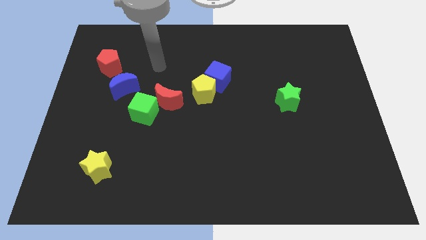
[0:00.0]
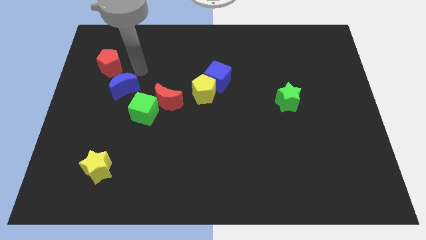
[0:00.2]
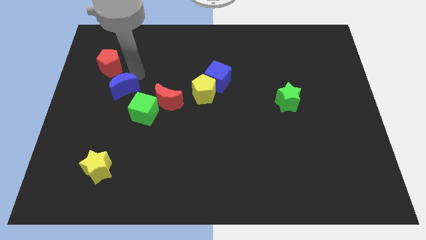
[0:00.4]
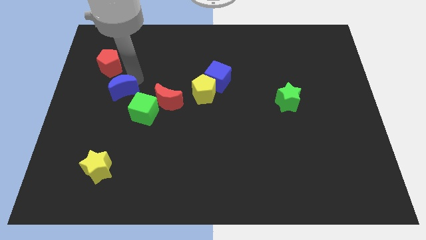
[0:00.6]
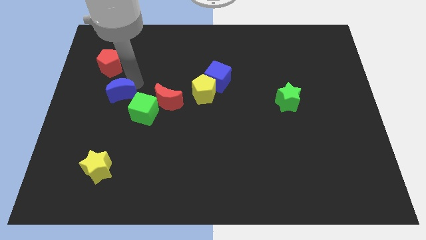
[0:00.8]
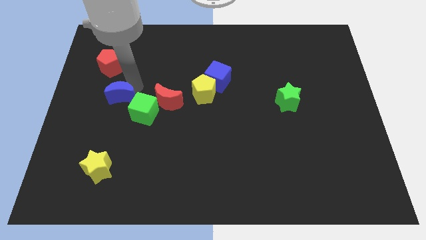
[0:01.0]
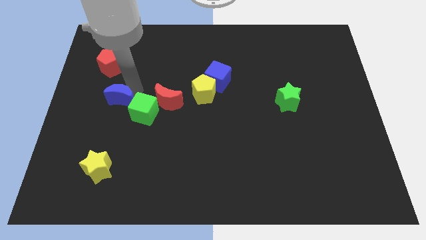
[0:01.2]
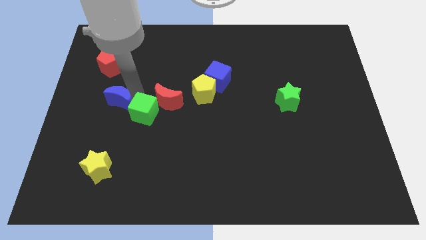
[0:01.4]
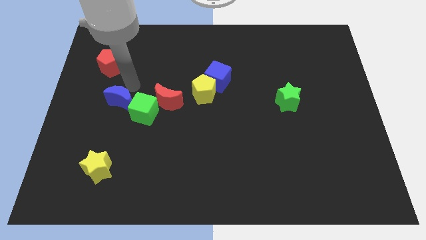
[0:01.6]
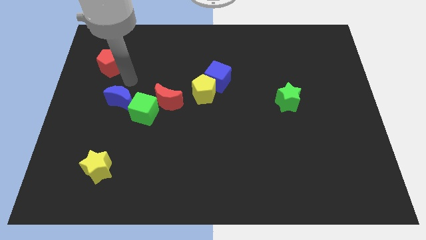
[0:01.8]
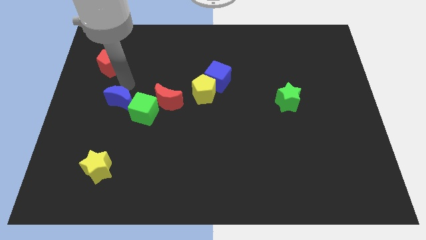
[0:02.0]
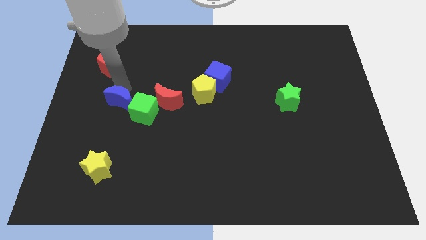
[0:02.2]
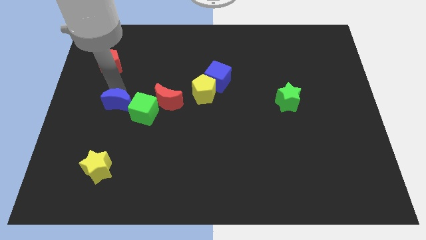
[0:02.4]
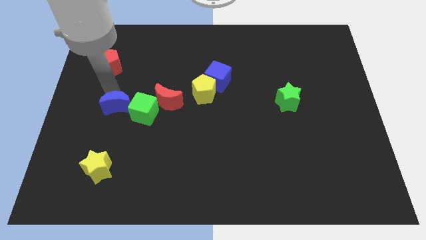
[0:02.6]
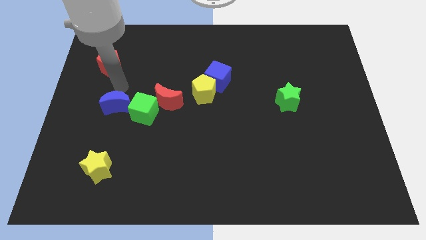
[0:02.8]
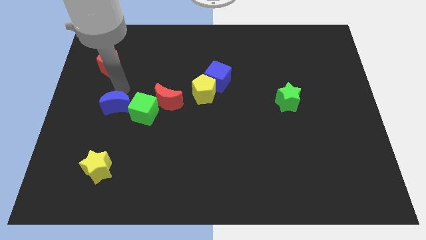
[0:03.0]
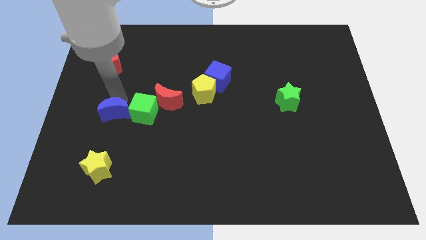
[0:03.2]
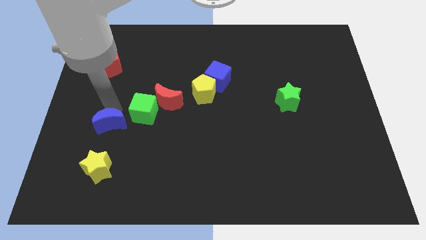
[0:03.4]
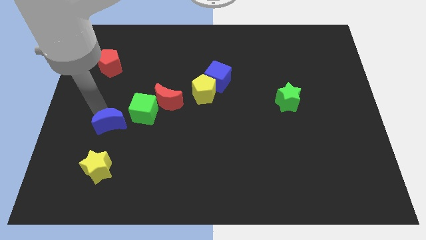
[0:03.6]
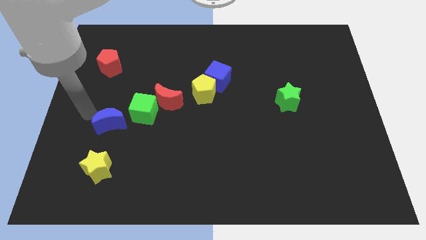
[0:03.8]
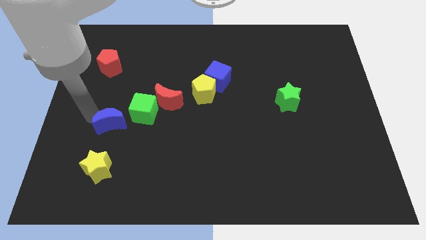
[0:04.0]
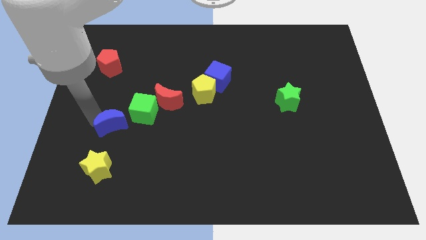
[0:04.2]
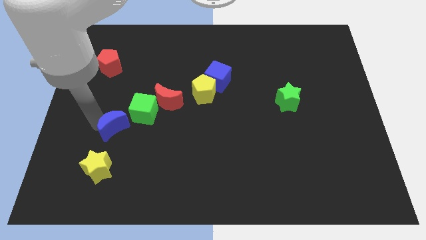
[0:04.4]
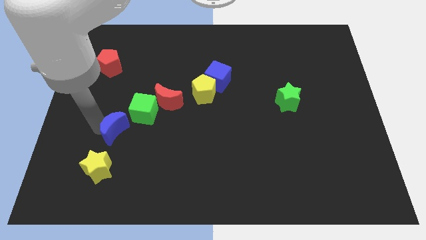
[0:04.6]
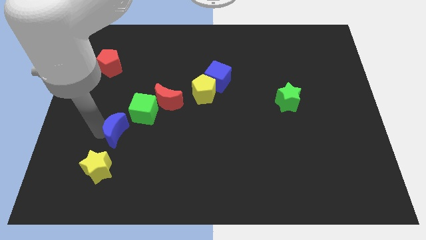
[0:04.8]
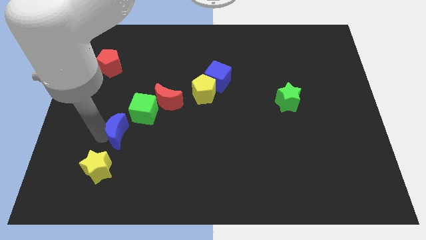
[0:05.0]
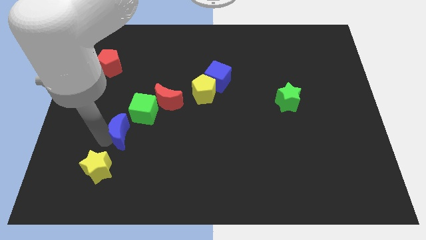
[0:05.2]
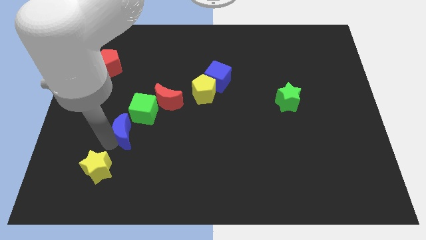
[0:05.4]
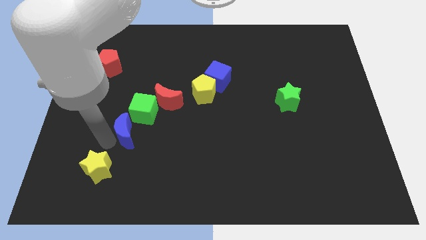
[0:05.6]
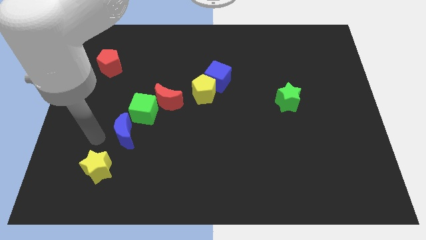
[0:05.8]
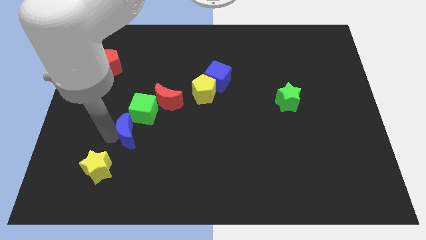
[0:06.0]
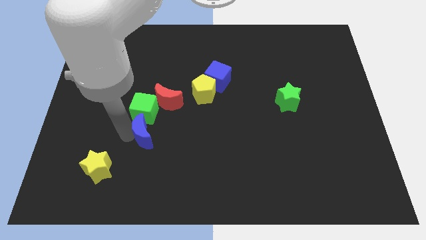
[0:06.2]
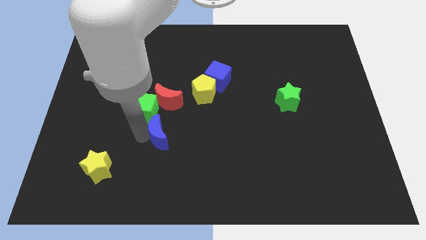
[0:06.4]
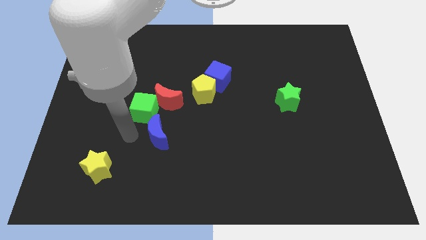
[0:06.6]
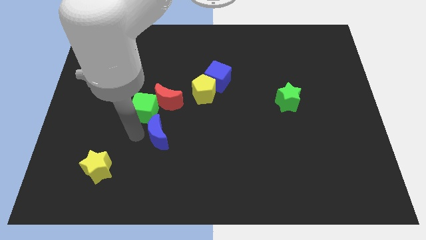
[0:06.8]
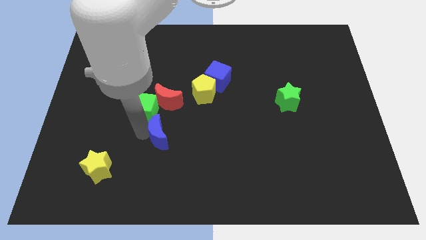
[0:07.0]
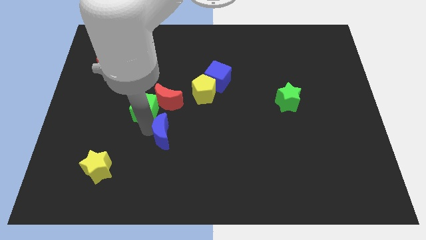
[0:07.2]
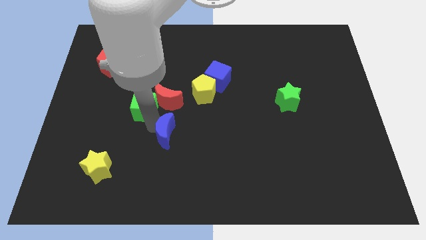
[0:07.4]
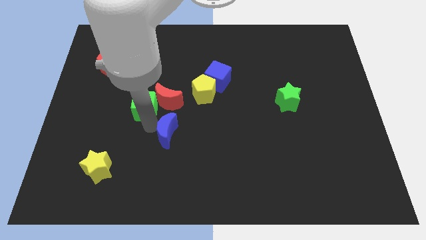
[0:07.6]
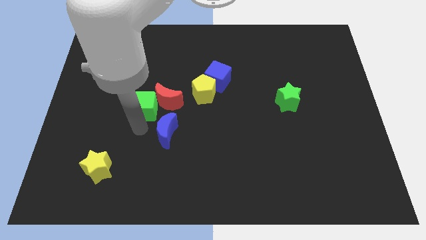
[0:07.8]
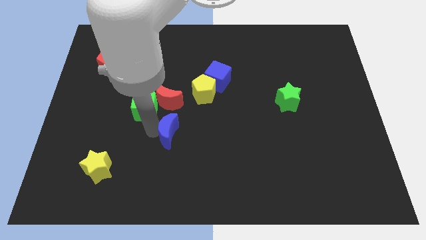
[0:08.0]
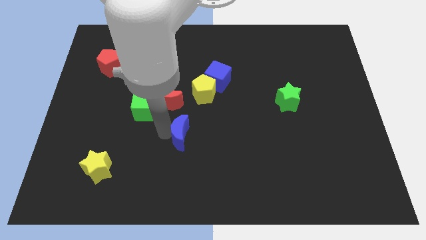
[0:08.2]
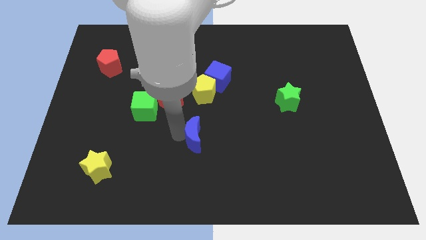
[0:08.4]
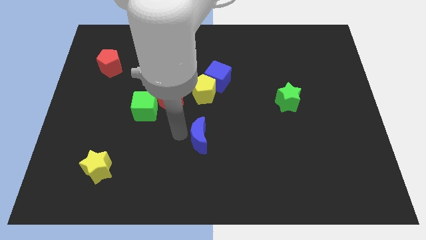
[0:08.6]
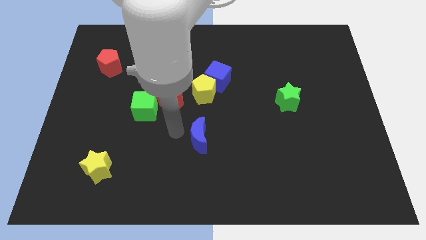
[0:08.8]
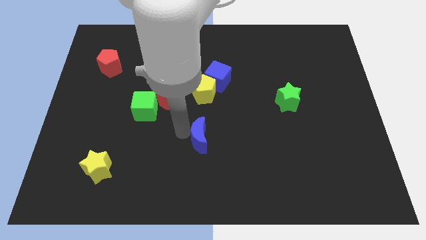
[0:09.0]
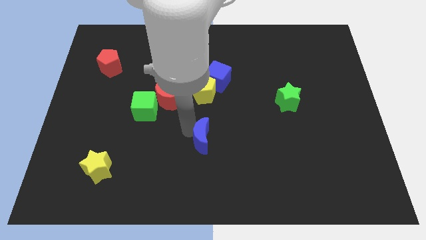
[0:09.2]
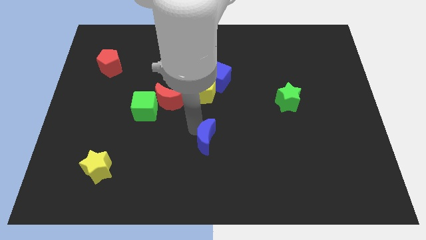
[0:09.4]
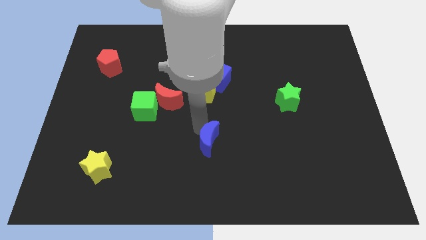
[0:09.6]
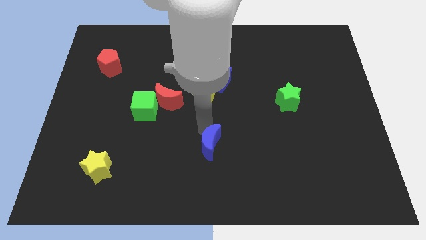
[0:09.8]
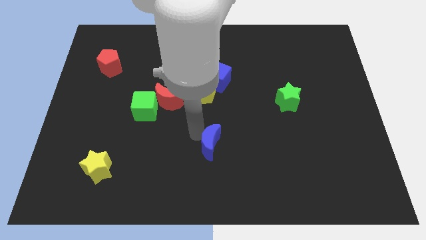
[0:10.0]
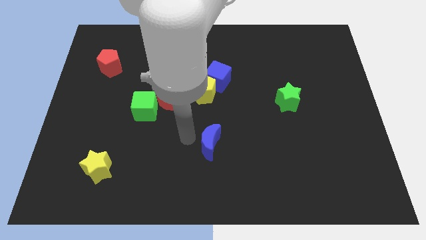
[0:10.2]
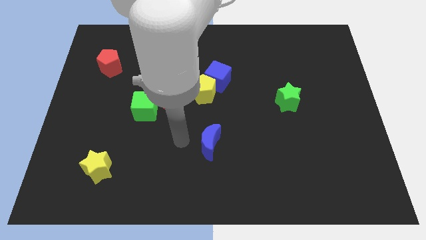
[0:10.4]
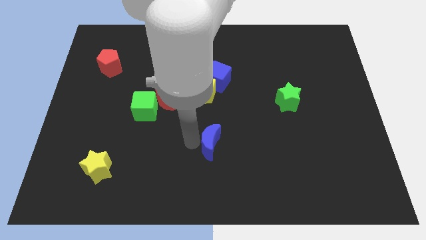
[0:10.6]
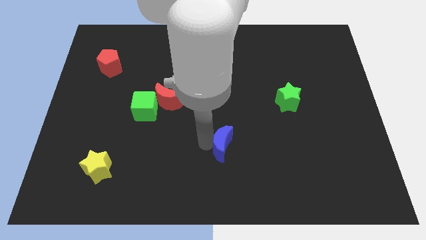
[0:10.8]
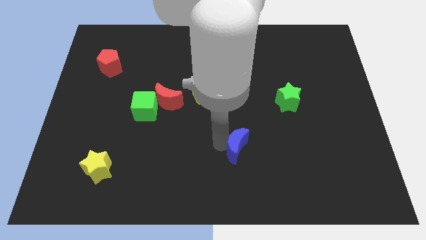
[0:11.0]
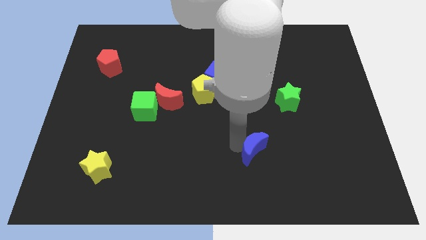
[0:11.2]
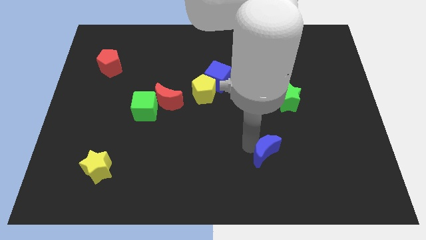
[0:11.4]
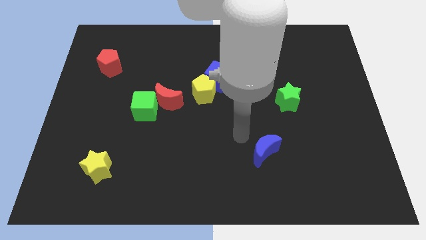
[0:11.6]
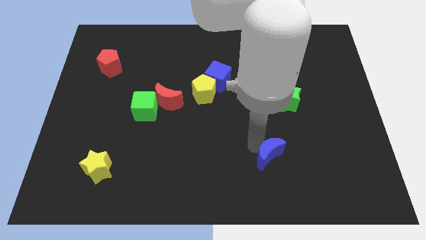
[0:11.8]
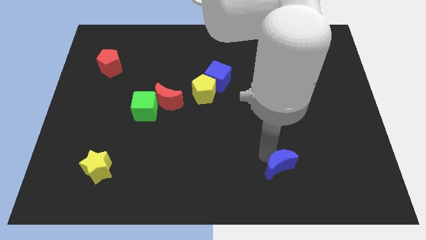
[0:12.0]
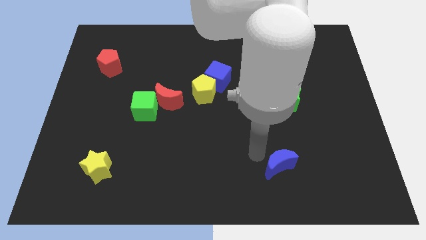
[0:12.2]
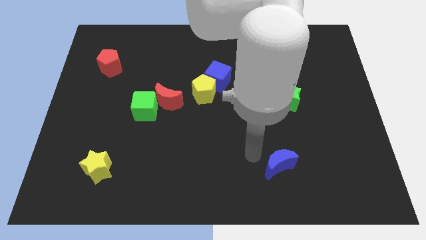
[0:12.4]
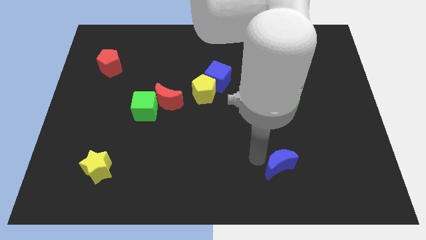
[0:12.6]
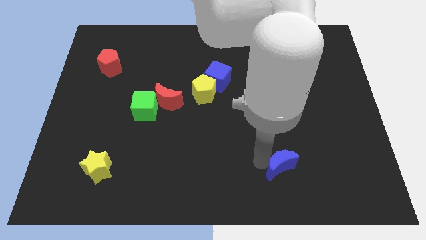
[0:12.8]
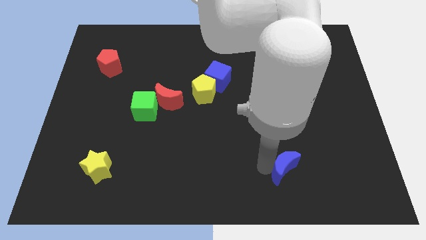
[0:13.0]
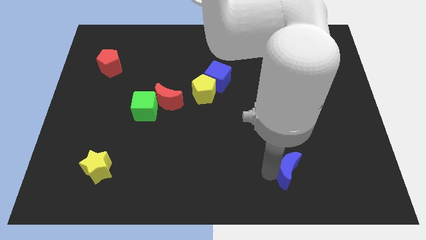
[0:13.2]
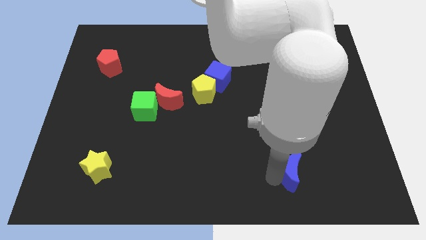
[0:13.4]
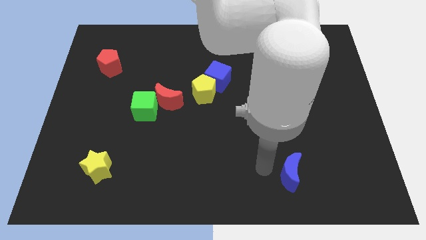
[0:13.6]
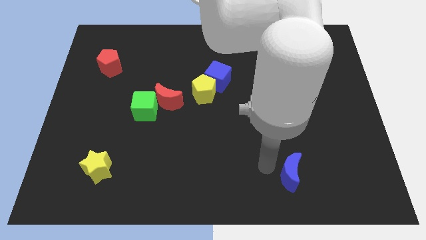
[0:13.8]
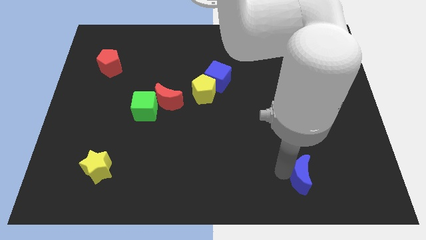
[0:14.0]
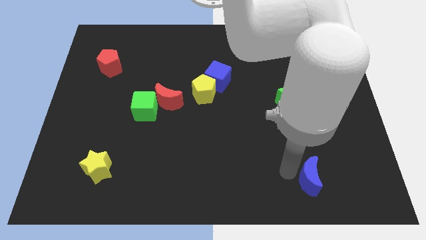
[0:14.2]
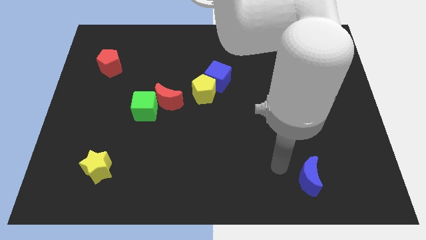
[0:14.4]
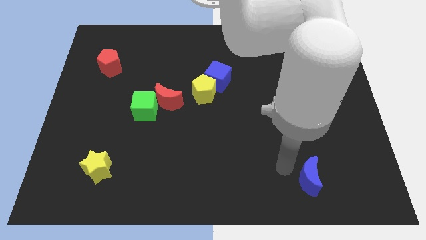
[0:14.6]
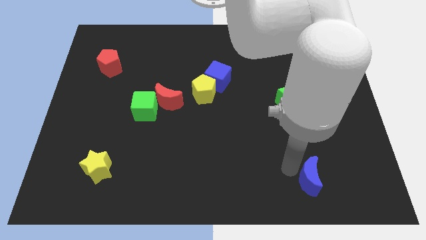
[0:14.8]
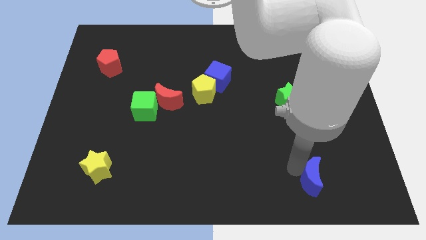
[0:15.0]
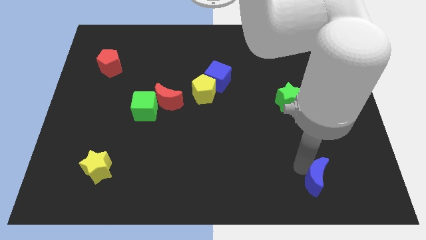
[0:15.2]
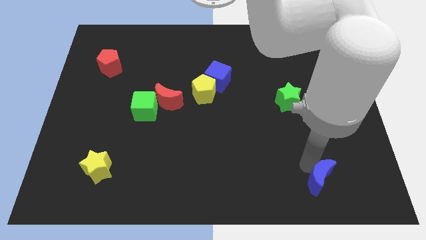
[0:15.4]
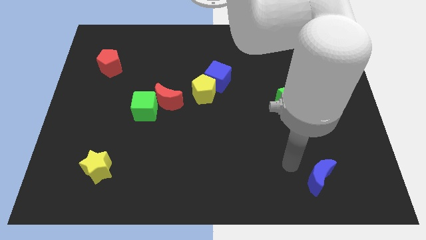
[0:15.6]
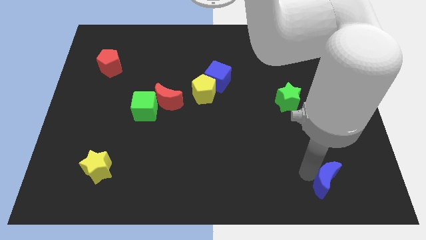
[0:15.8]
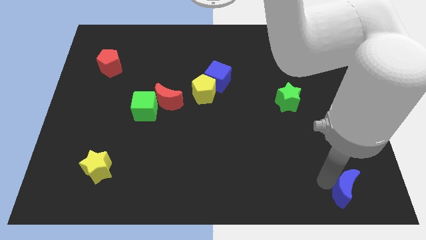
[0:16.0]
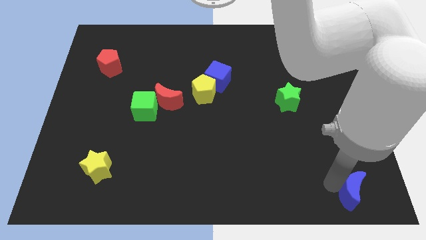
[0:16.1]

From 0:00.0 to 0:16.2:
move the blue moon to the bottom right of the board
